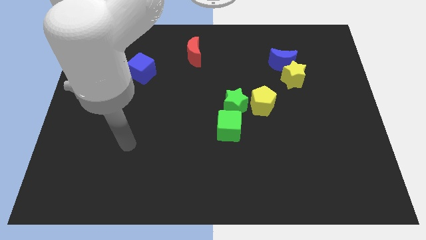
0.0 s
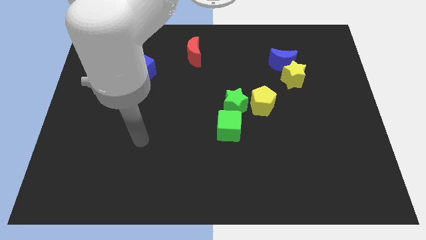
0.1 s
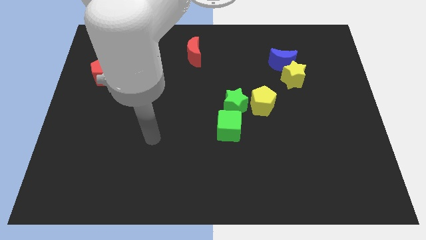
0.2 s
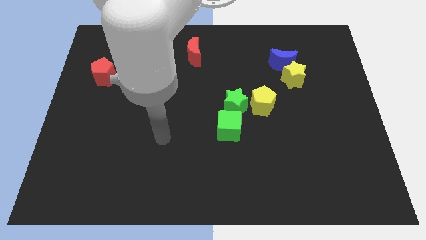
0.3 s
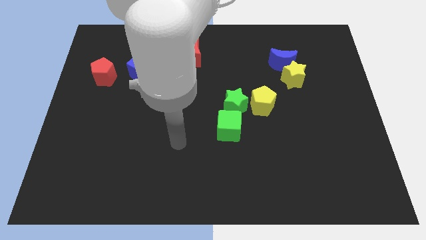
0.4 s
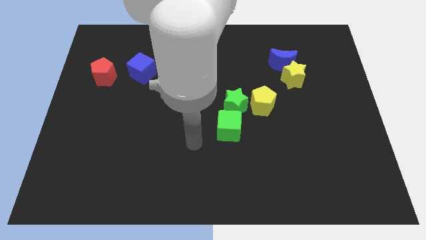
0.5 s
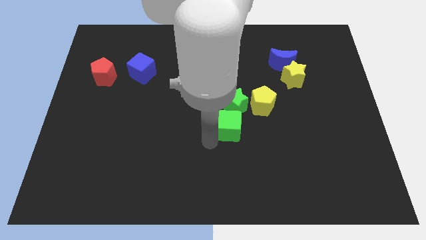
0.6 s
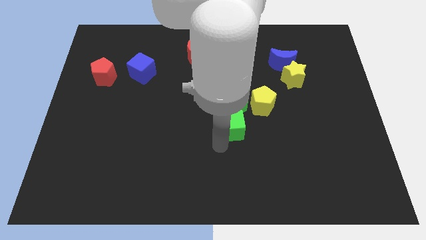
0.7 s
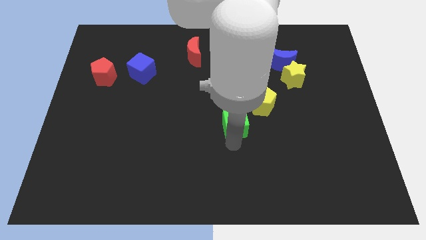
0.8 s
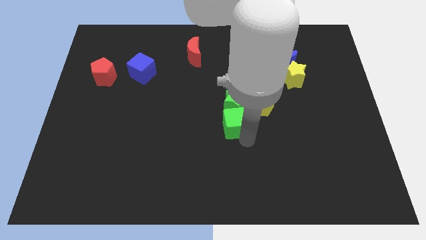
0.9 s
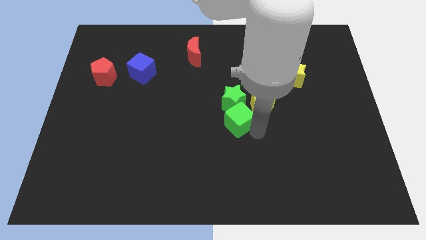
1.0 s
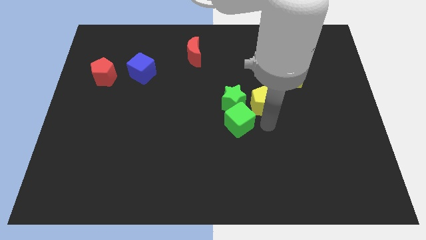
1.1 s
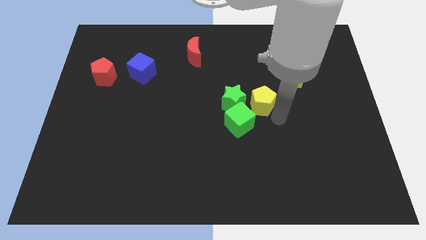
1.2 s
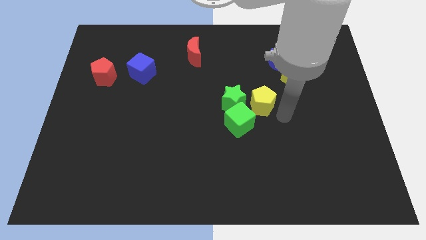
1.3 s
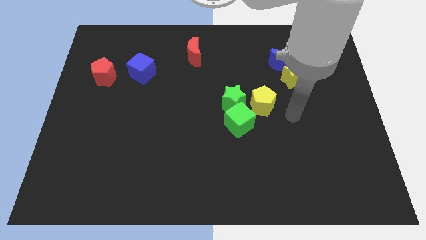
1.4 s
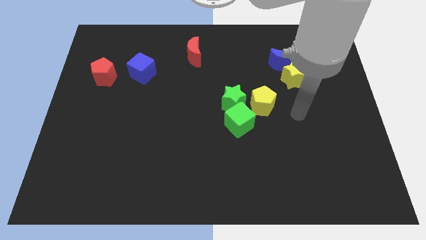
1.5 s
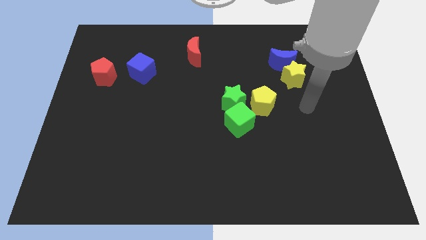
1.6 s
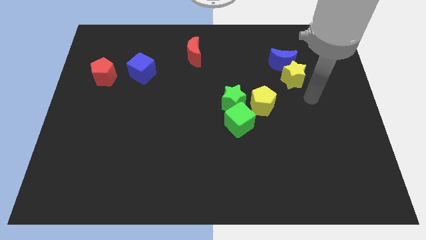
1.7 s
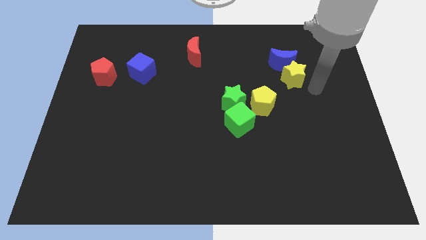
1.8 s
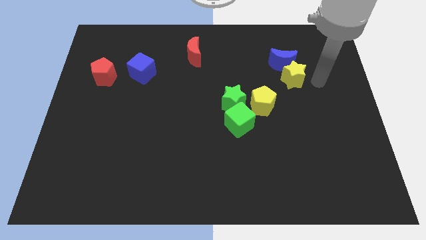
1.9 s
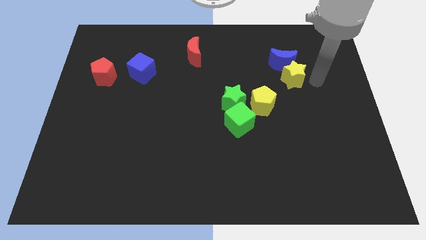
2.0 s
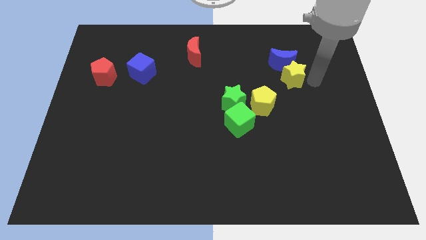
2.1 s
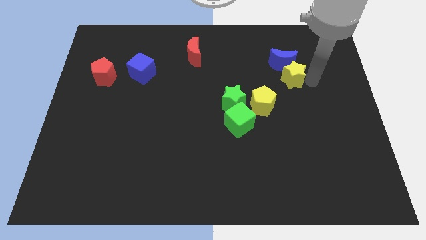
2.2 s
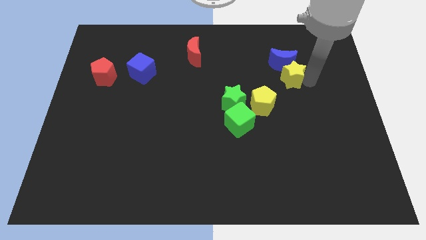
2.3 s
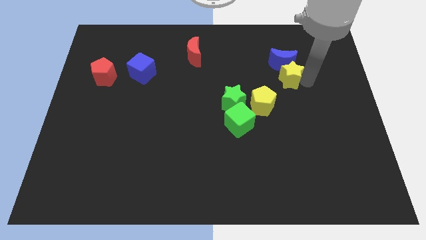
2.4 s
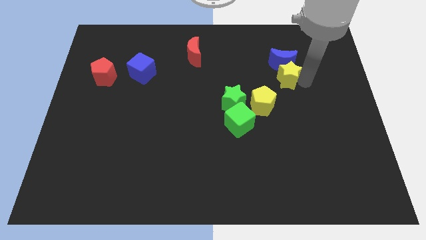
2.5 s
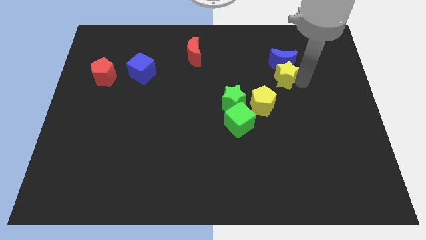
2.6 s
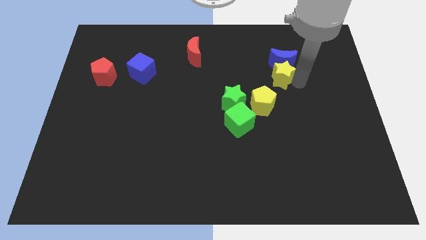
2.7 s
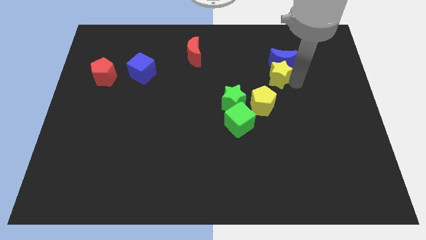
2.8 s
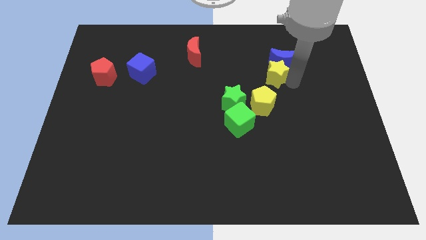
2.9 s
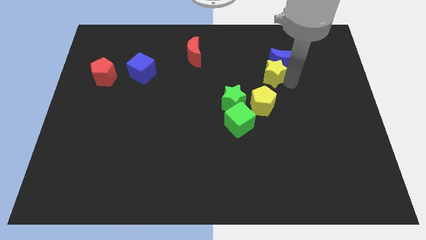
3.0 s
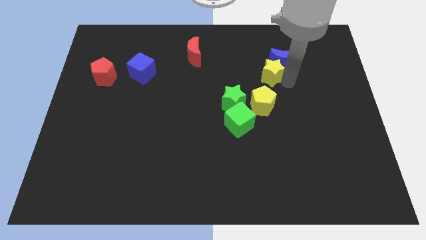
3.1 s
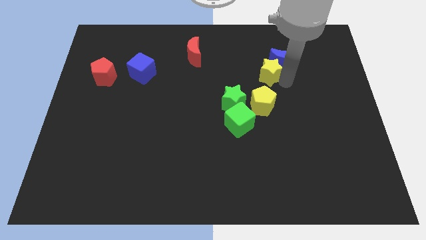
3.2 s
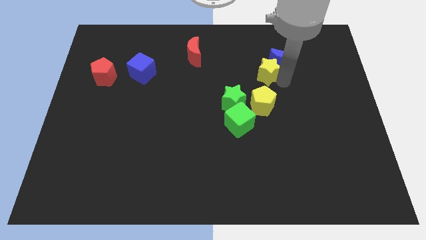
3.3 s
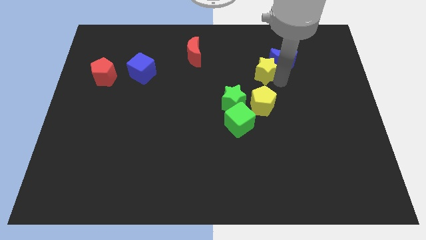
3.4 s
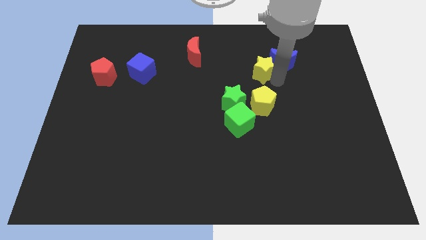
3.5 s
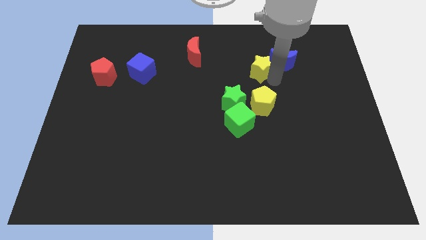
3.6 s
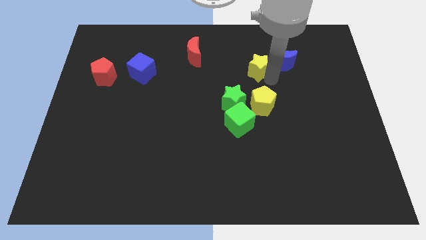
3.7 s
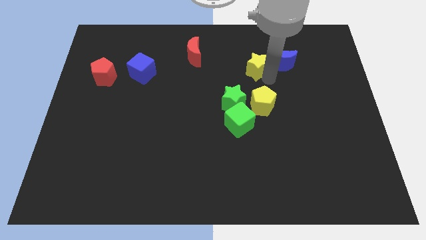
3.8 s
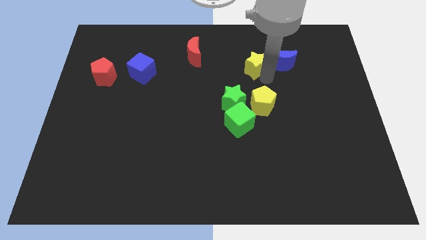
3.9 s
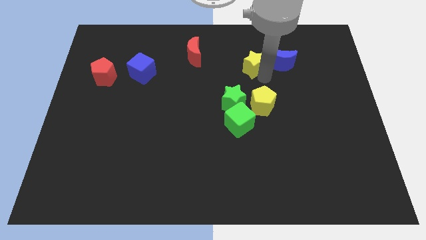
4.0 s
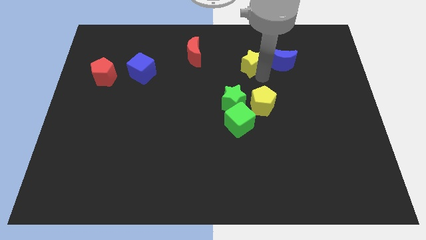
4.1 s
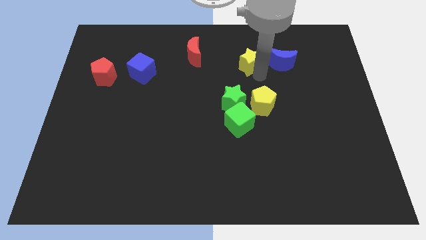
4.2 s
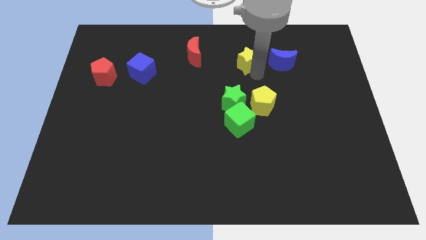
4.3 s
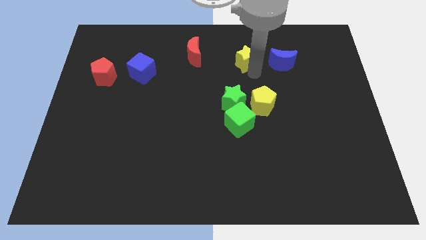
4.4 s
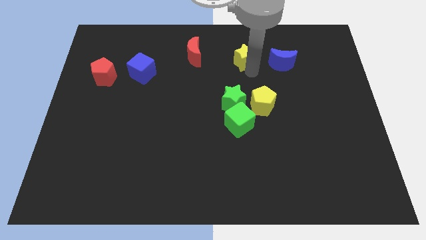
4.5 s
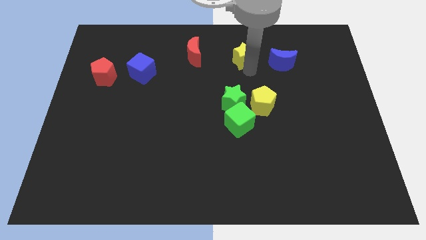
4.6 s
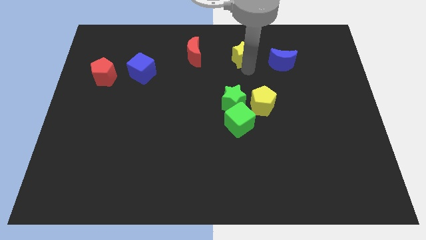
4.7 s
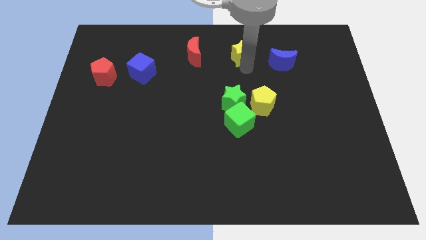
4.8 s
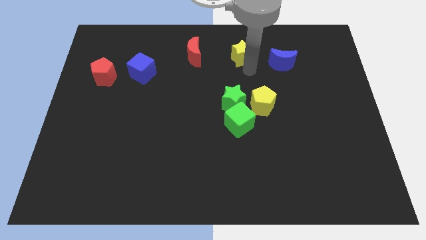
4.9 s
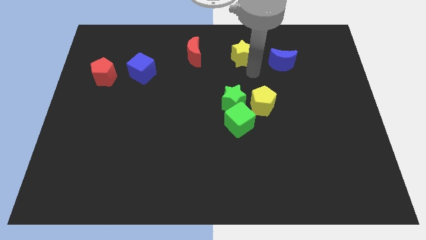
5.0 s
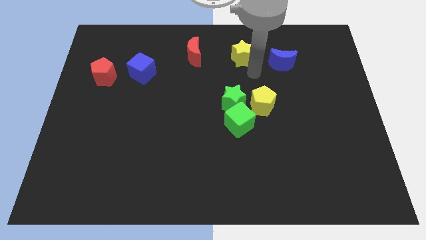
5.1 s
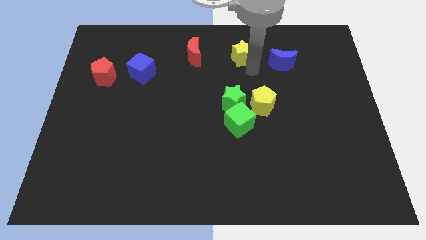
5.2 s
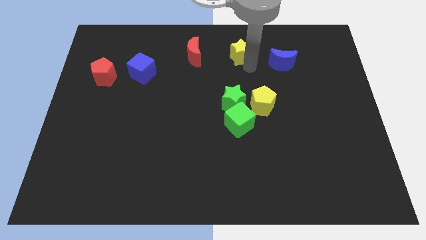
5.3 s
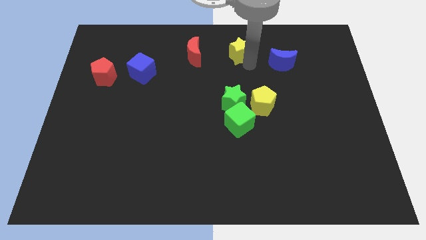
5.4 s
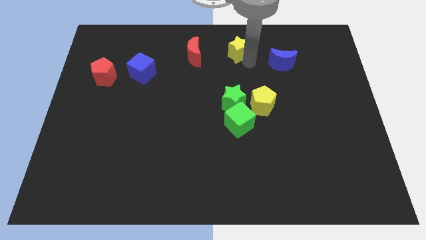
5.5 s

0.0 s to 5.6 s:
push the yellow star to the top
